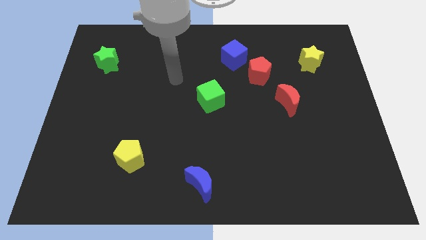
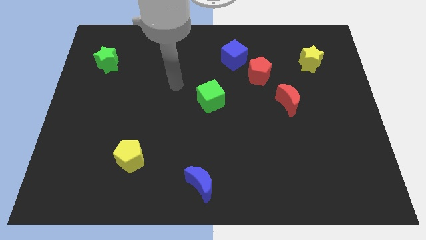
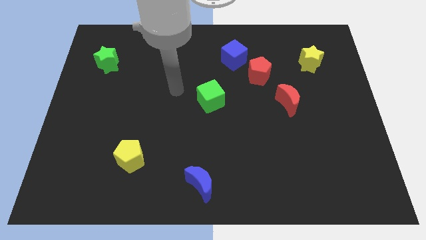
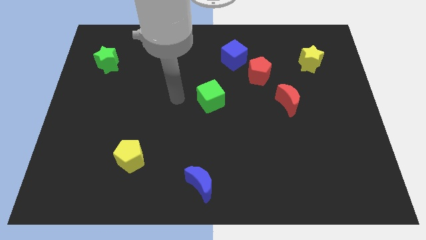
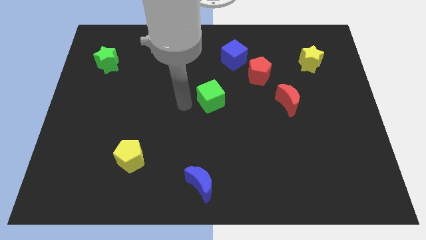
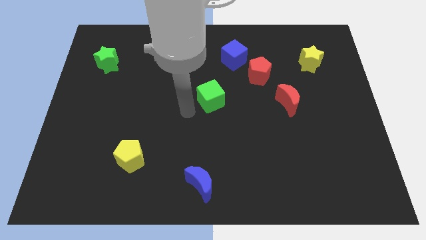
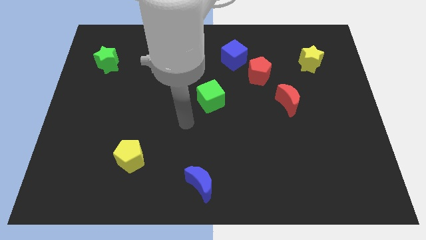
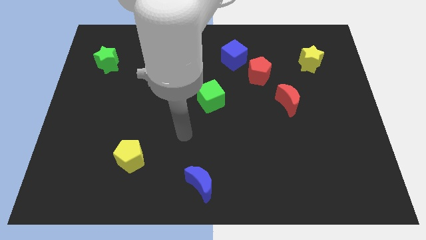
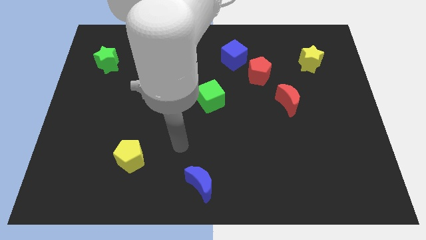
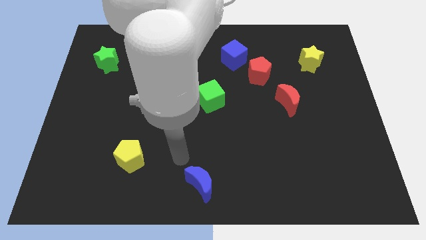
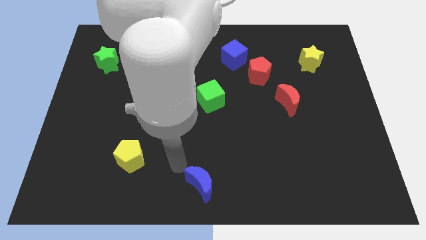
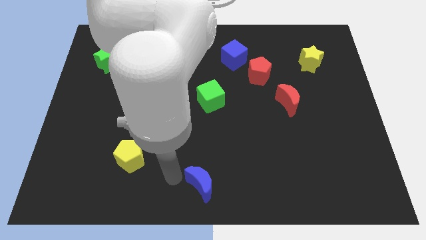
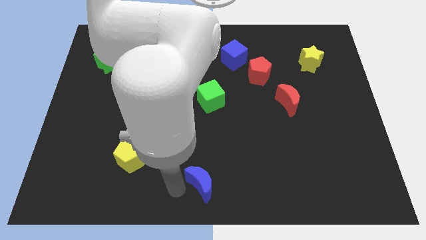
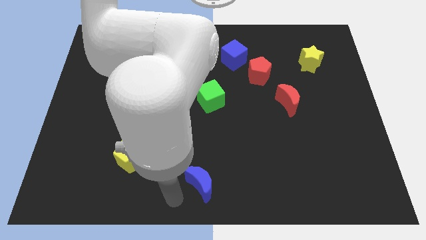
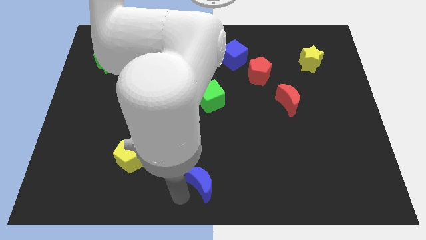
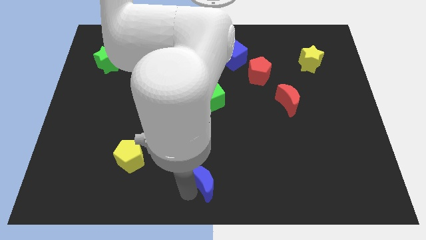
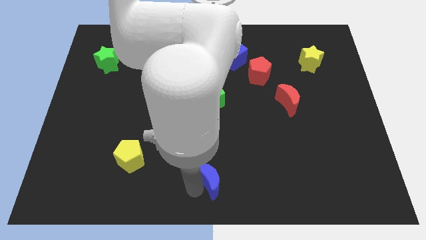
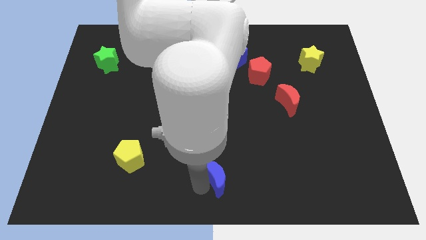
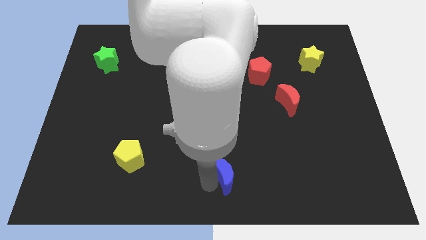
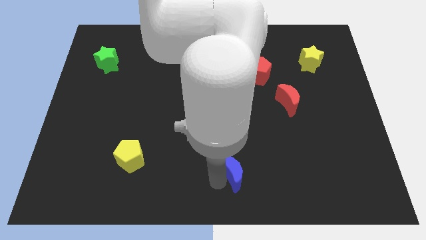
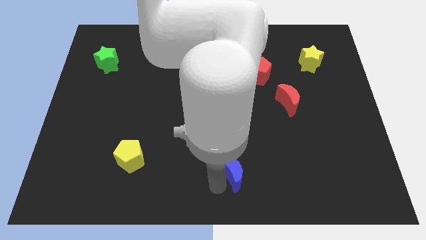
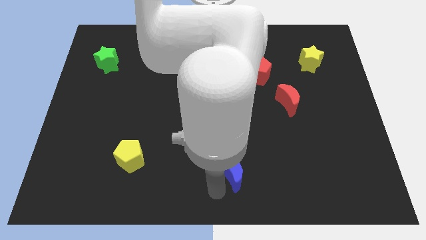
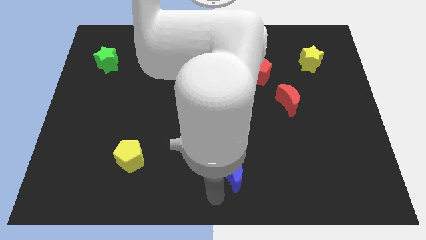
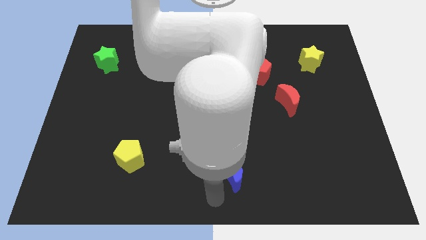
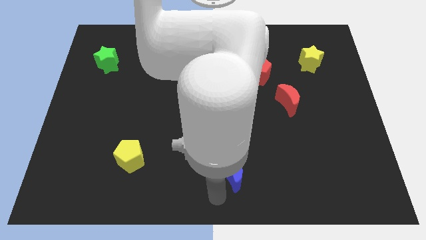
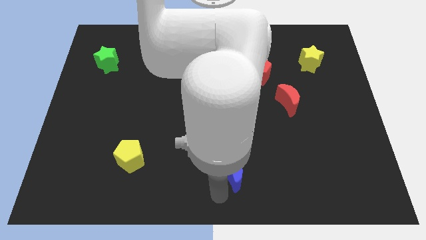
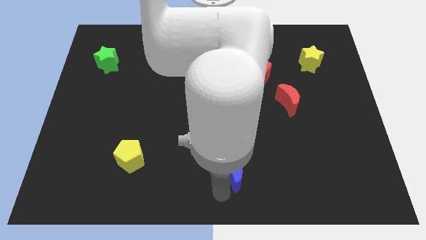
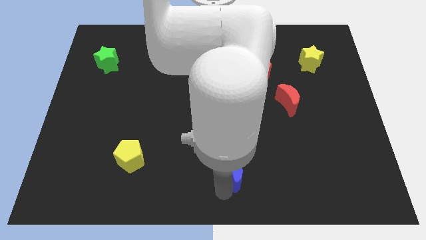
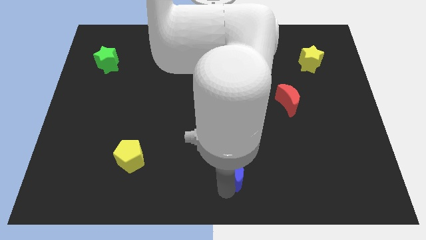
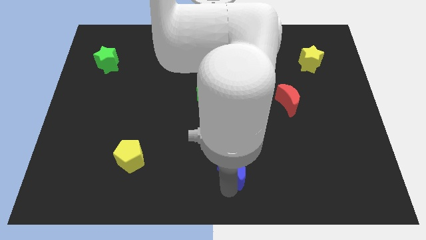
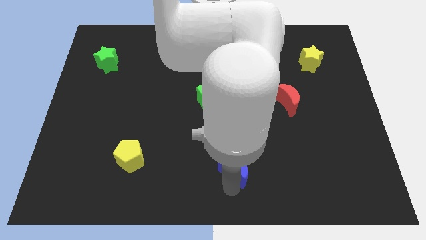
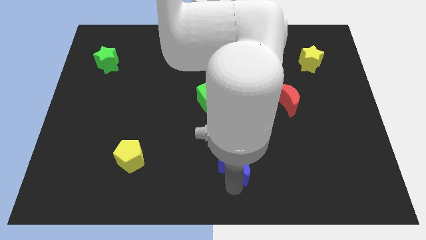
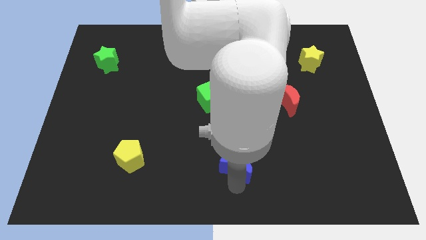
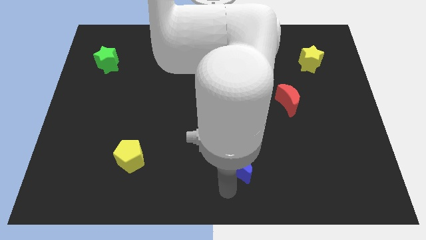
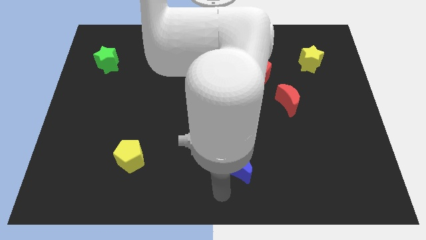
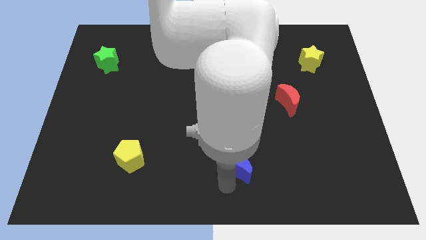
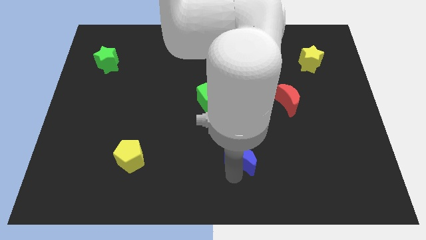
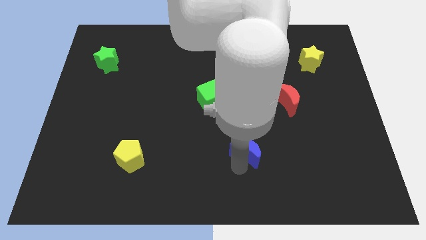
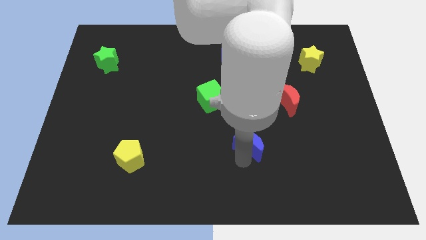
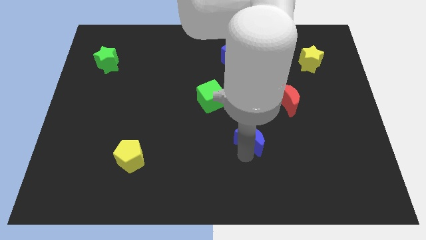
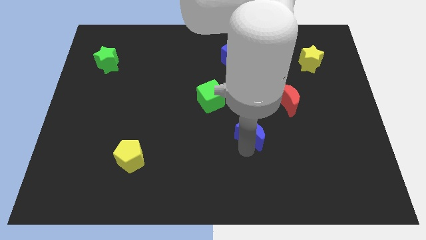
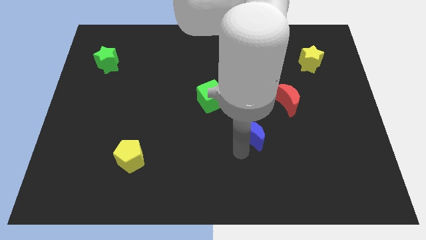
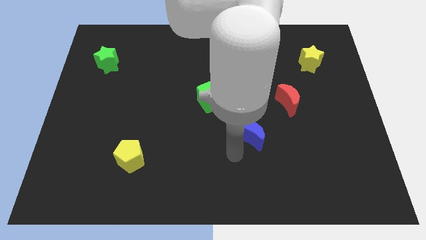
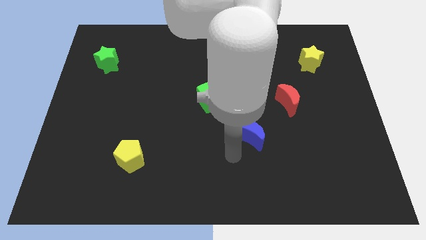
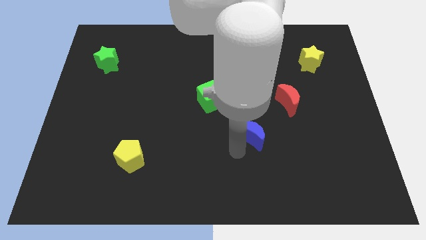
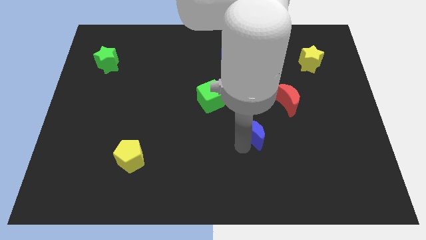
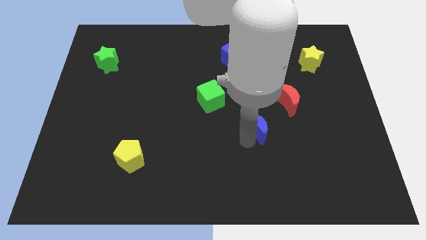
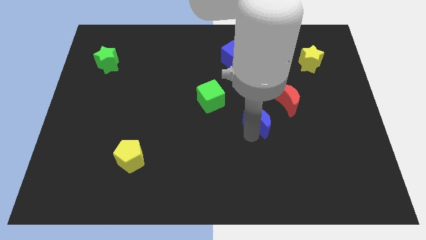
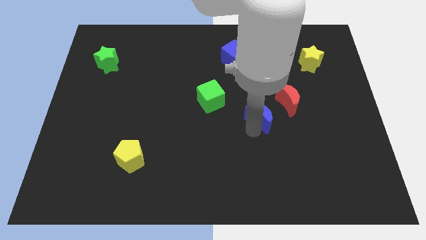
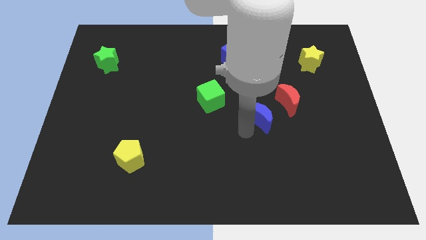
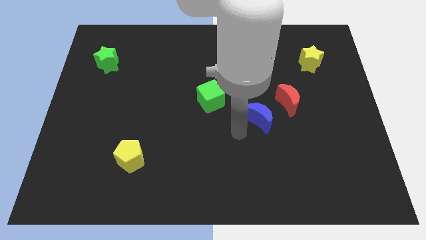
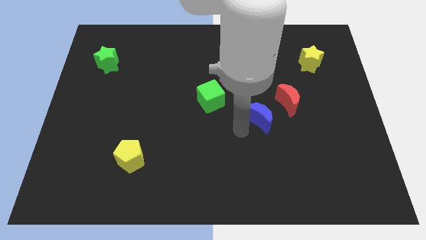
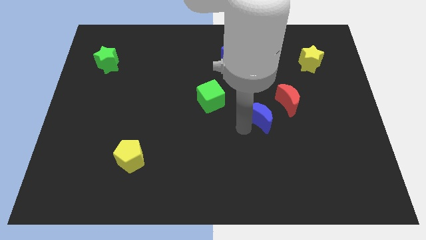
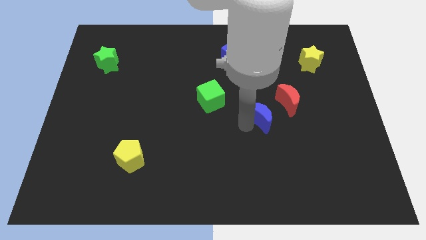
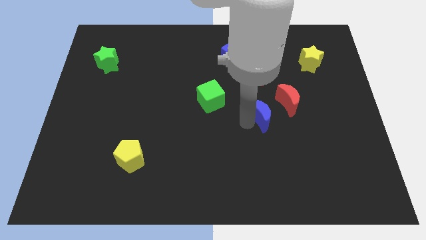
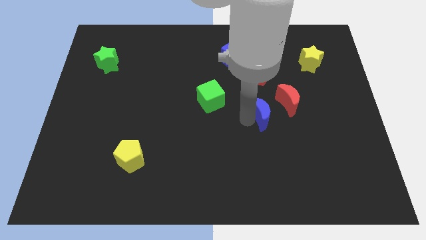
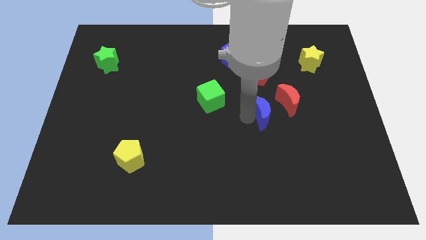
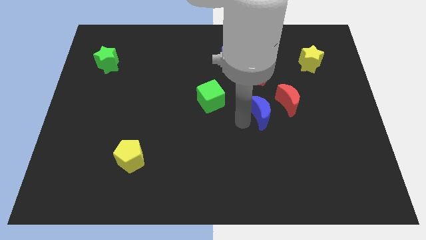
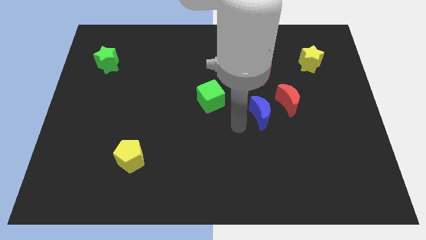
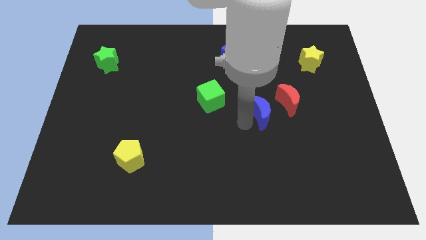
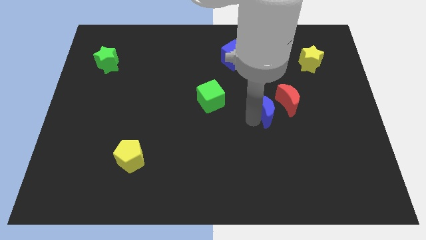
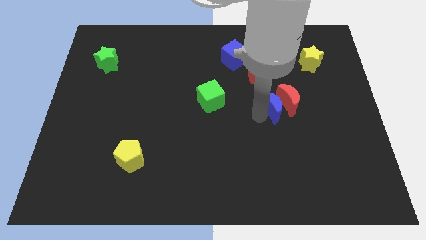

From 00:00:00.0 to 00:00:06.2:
put the blue moon towards the red moon

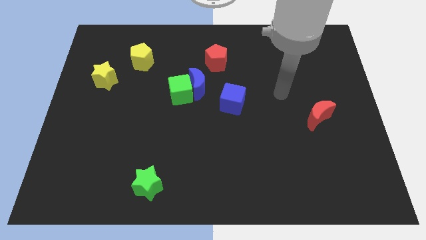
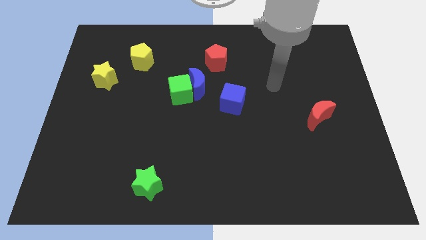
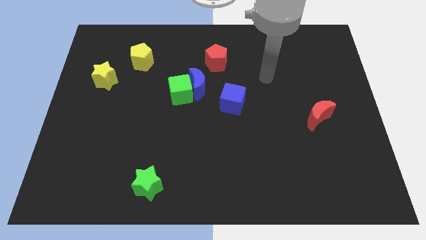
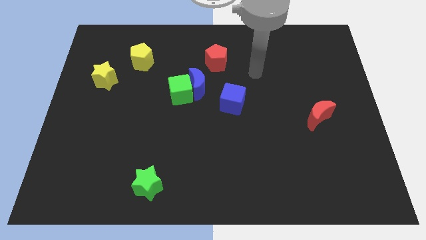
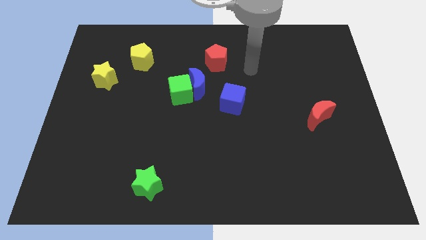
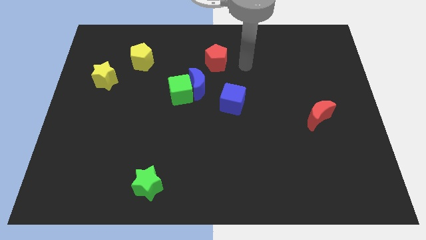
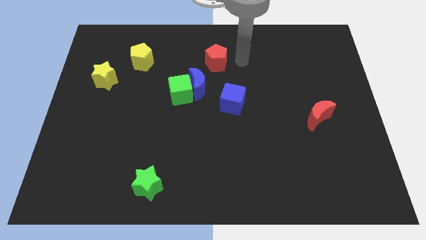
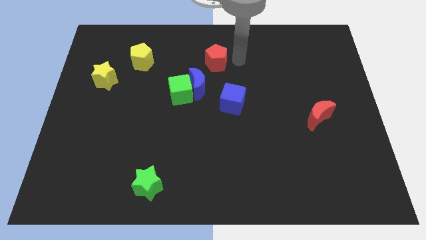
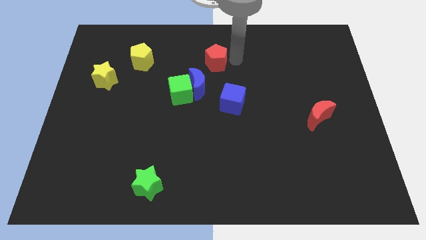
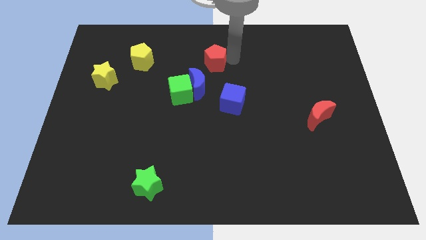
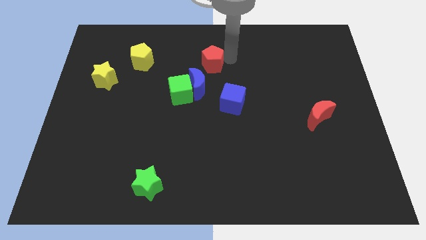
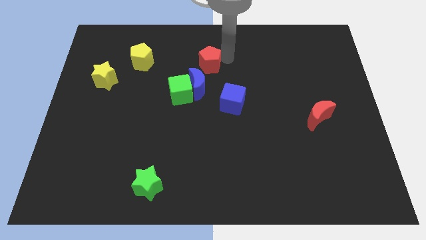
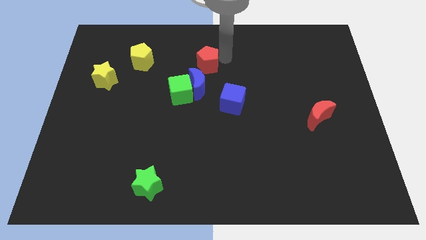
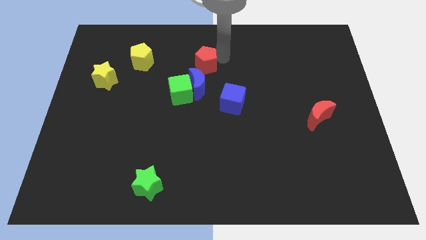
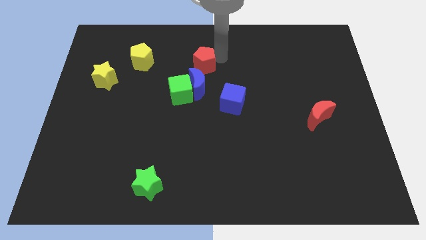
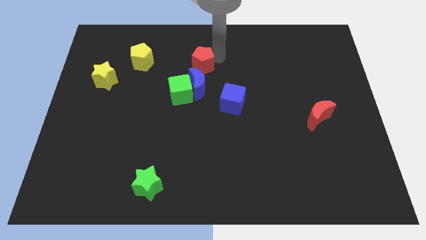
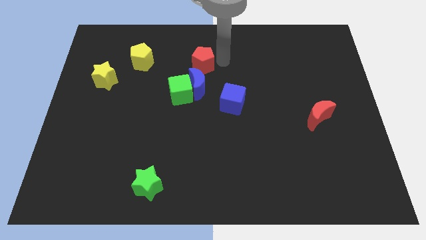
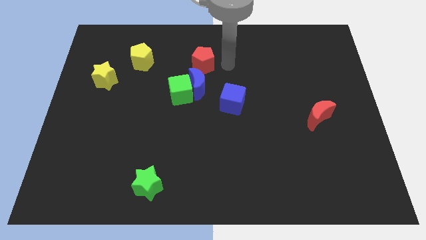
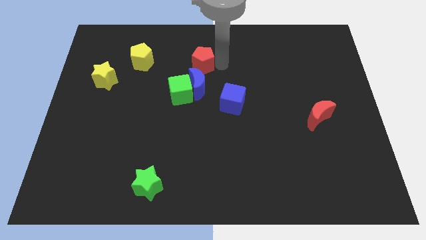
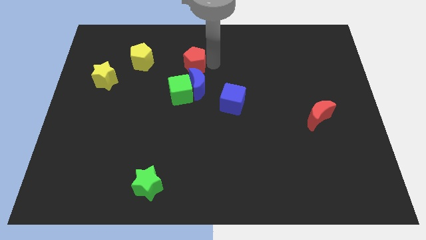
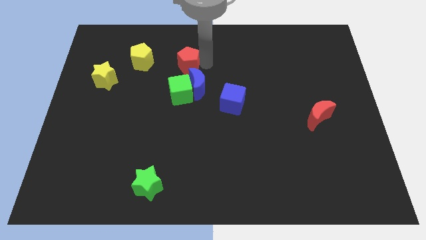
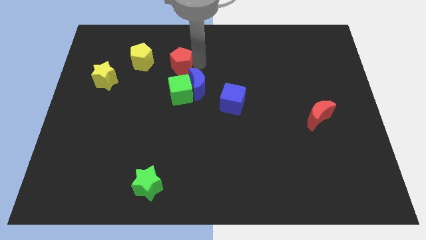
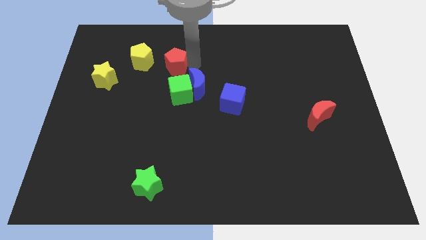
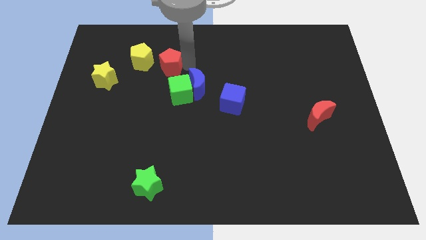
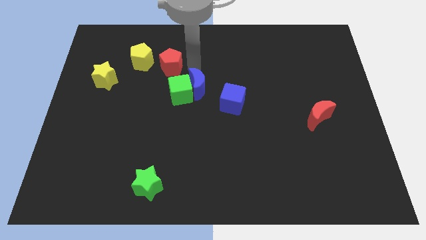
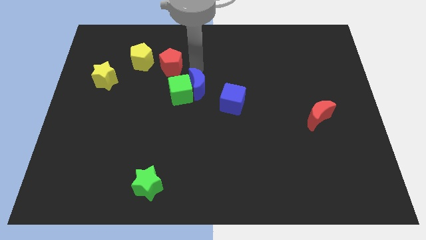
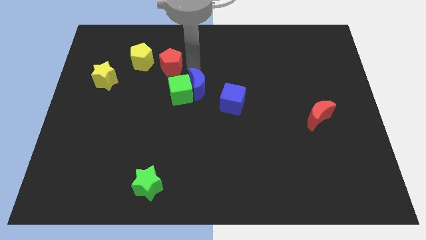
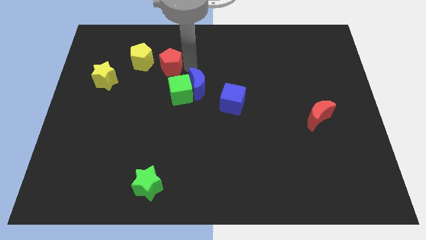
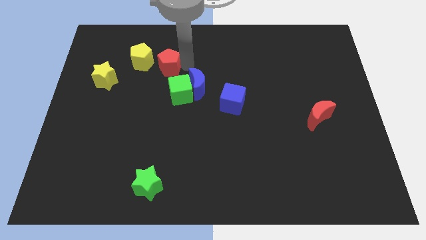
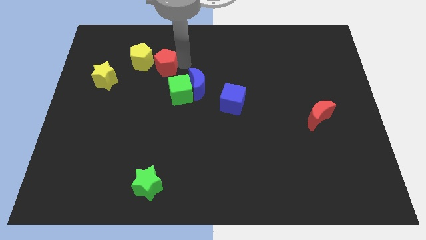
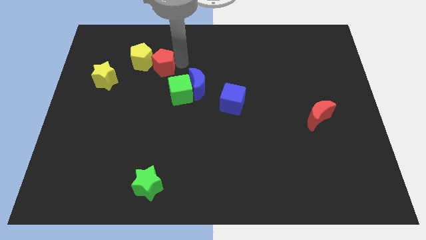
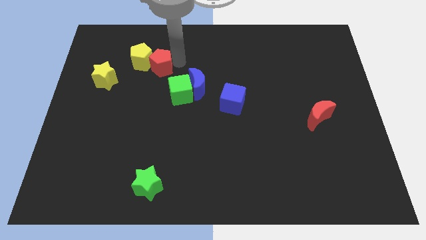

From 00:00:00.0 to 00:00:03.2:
push the red pentagon close to the yellow pentagon
